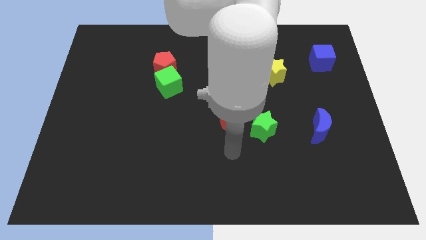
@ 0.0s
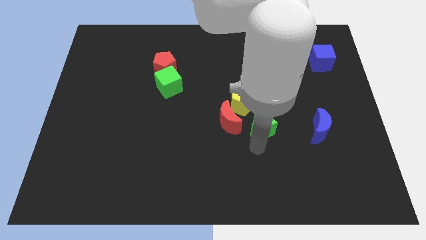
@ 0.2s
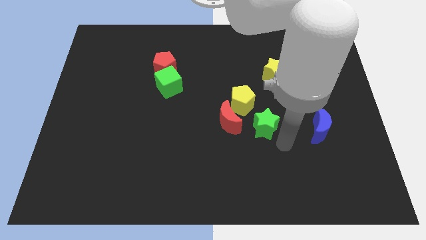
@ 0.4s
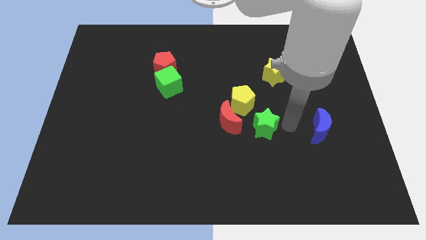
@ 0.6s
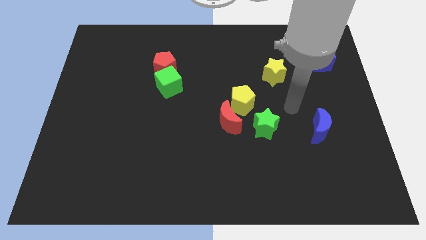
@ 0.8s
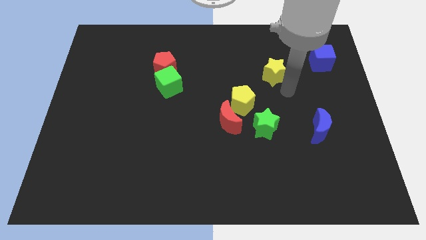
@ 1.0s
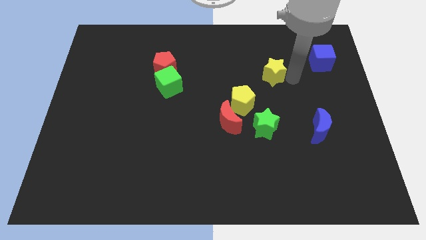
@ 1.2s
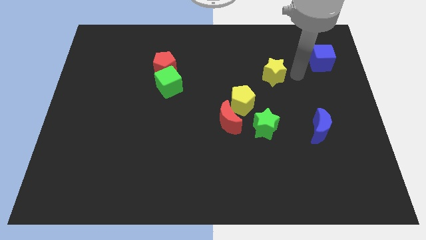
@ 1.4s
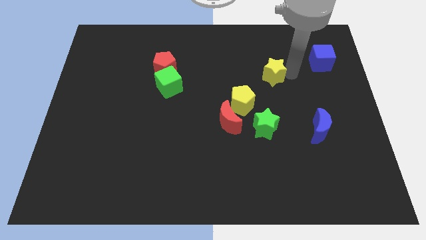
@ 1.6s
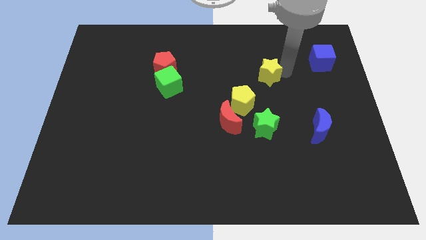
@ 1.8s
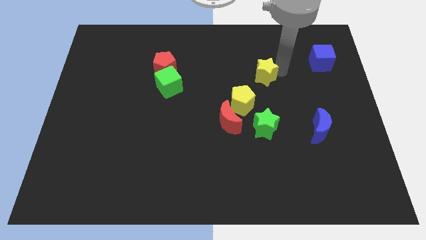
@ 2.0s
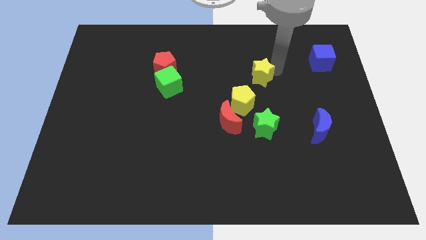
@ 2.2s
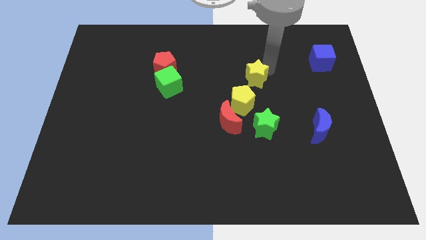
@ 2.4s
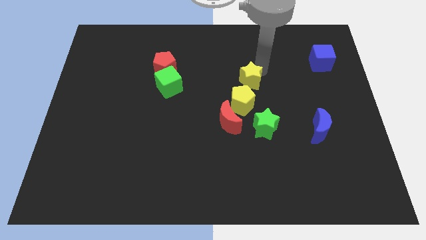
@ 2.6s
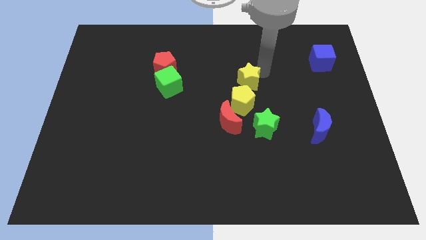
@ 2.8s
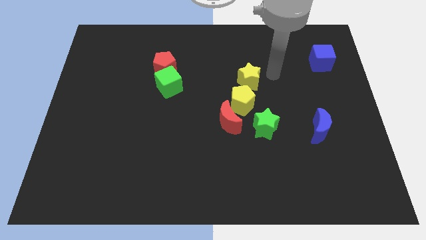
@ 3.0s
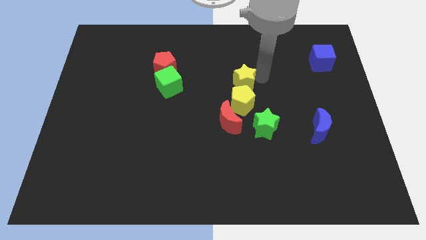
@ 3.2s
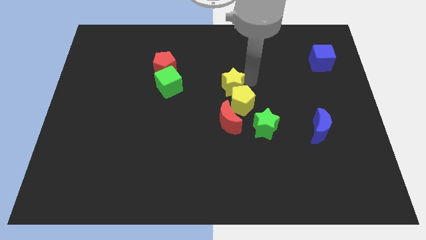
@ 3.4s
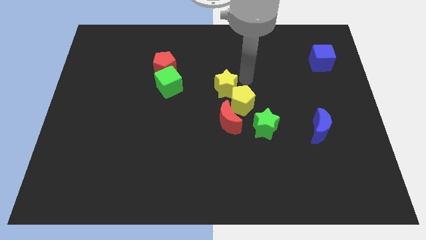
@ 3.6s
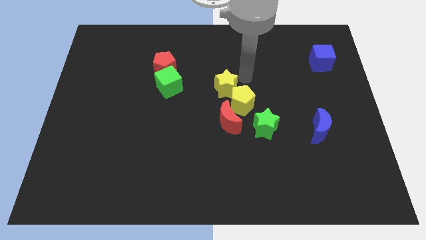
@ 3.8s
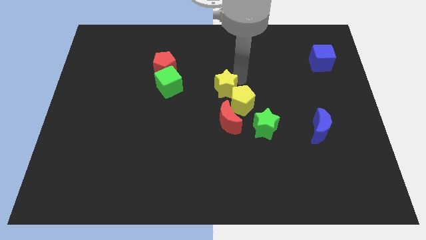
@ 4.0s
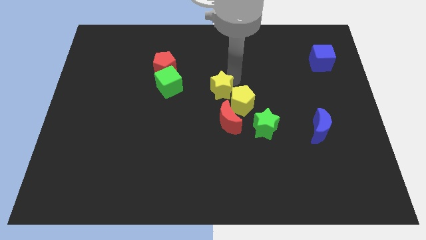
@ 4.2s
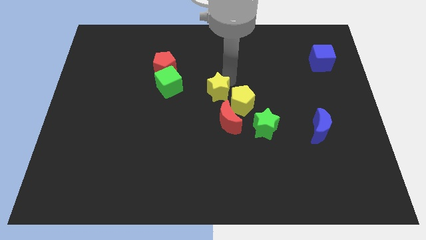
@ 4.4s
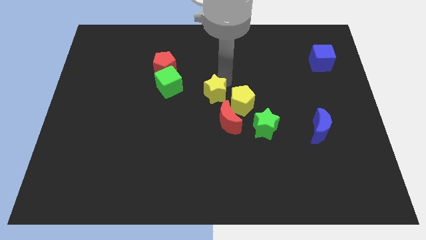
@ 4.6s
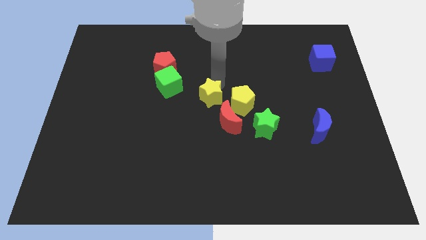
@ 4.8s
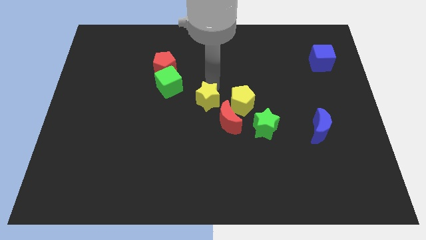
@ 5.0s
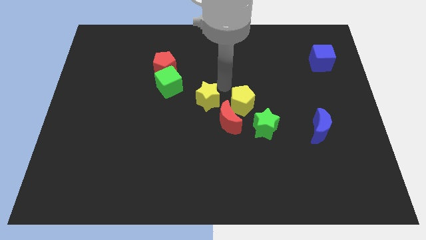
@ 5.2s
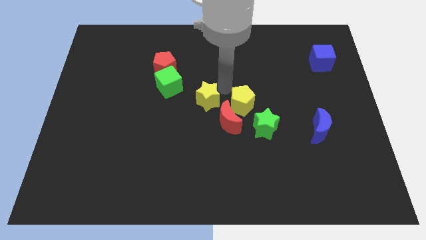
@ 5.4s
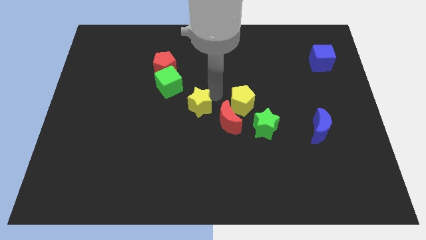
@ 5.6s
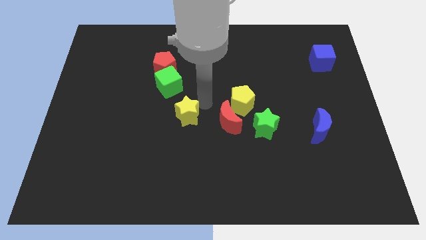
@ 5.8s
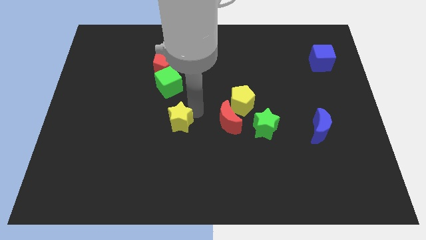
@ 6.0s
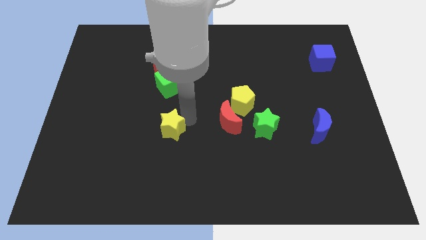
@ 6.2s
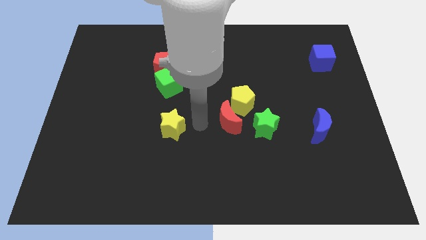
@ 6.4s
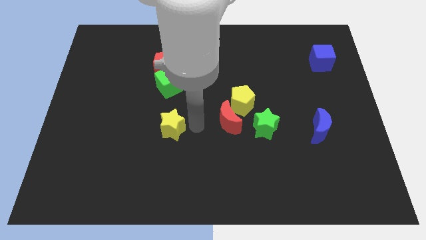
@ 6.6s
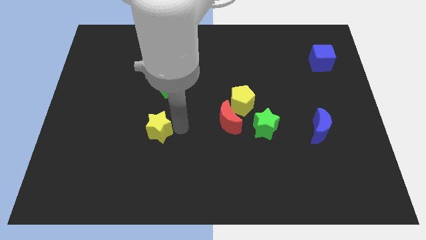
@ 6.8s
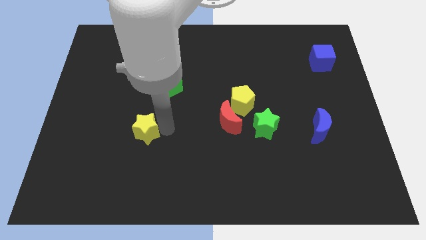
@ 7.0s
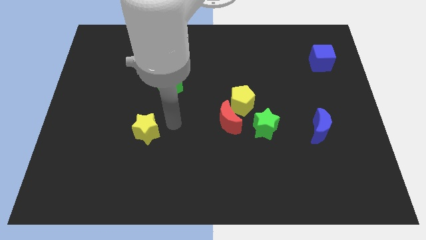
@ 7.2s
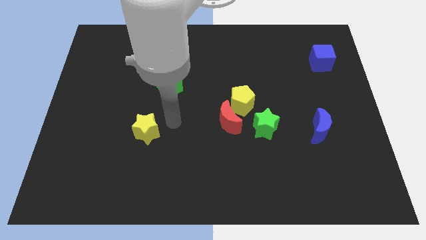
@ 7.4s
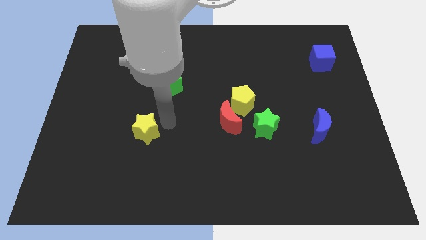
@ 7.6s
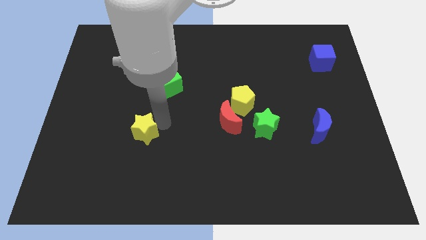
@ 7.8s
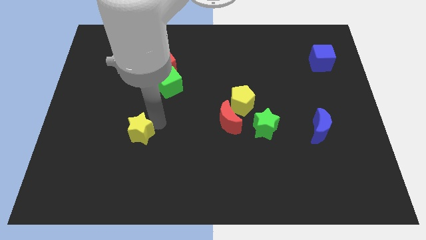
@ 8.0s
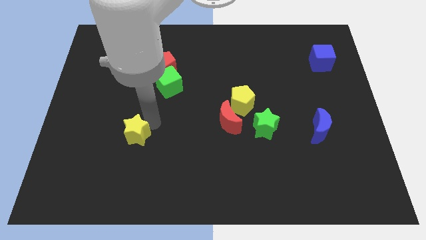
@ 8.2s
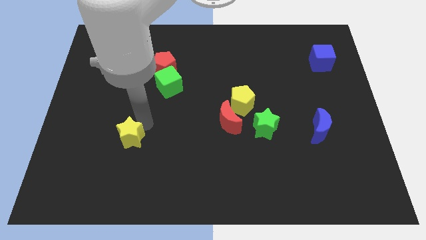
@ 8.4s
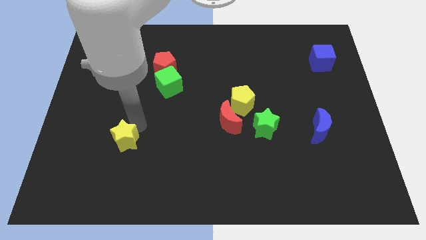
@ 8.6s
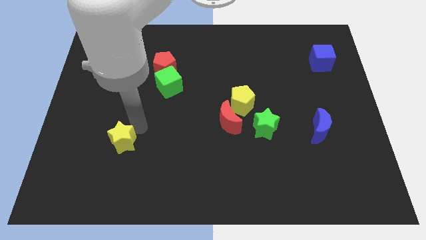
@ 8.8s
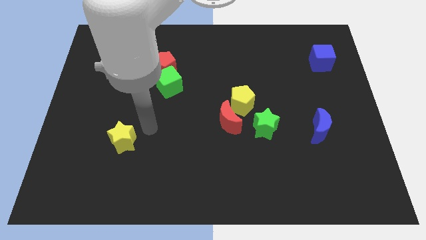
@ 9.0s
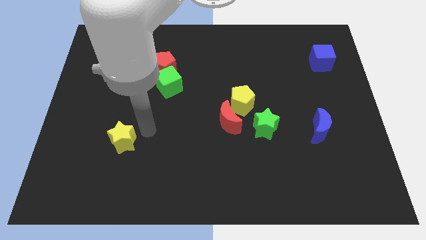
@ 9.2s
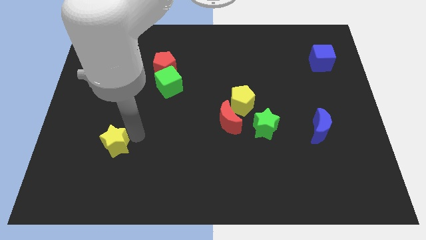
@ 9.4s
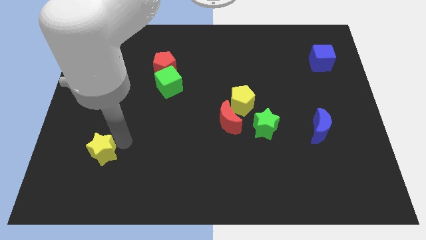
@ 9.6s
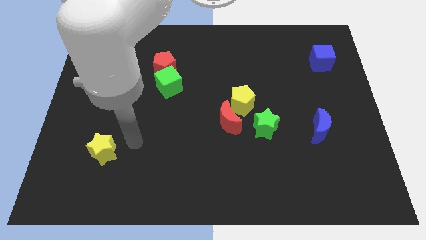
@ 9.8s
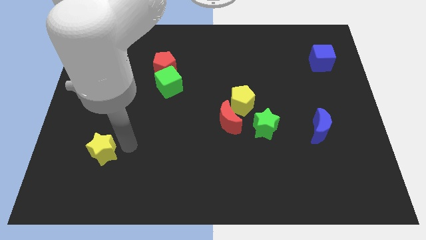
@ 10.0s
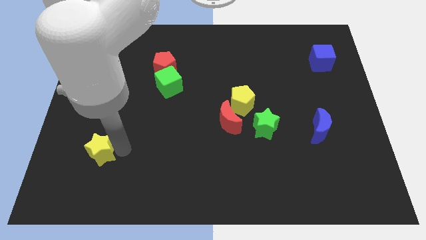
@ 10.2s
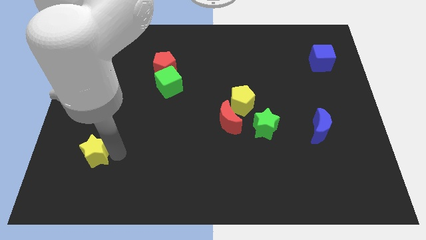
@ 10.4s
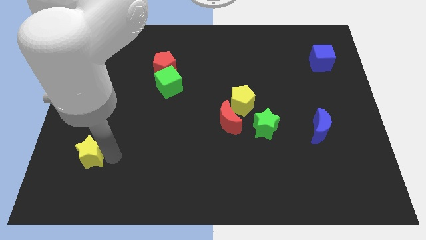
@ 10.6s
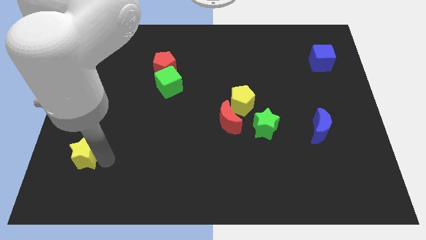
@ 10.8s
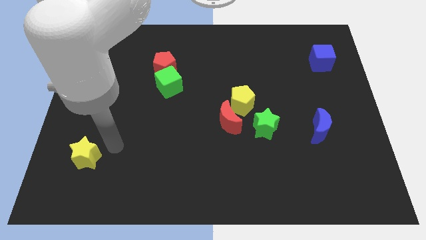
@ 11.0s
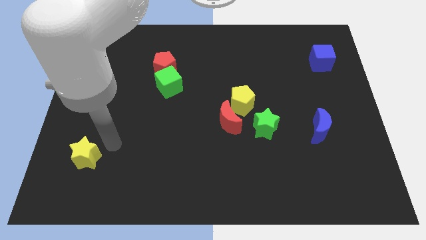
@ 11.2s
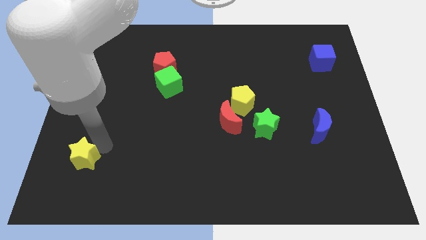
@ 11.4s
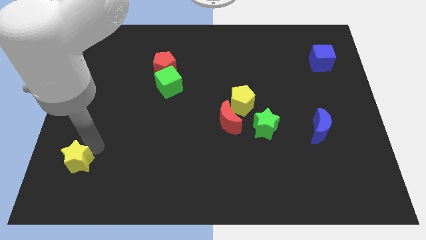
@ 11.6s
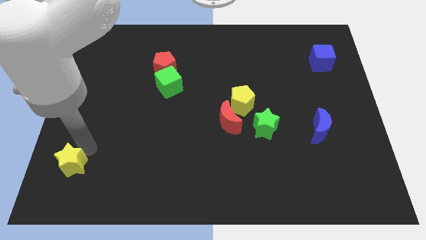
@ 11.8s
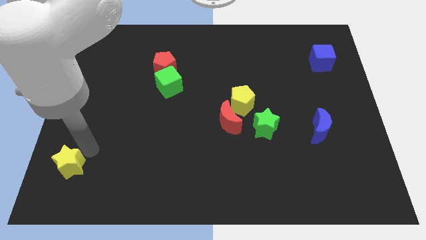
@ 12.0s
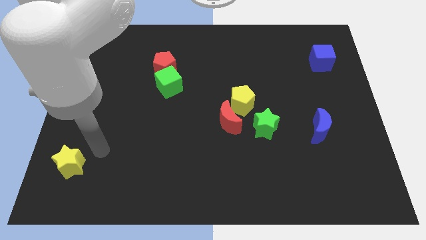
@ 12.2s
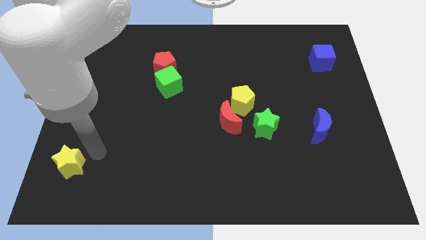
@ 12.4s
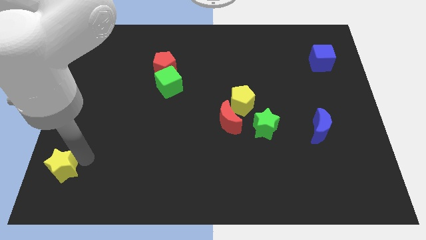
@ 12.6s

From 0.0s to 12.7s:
move the yellow star to the bottom left corner
